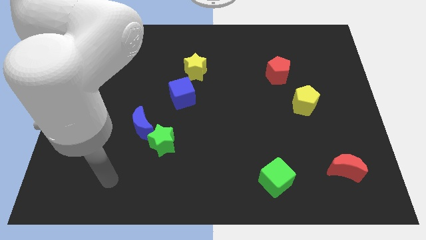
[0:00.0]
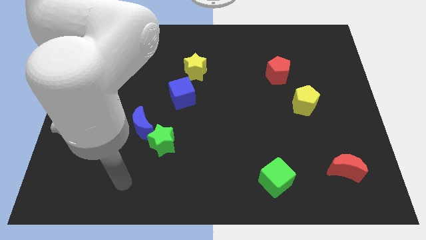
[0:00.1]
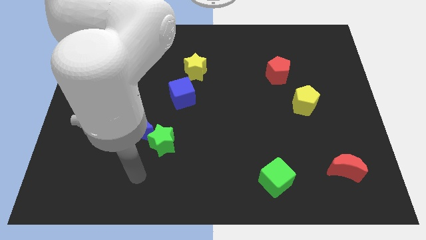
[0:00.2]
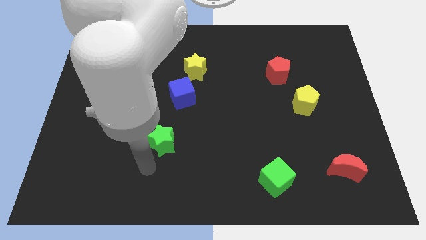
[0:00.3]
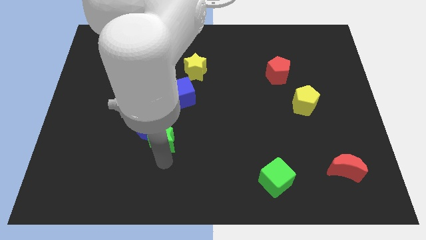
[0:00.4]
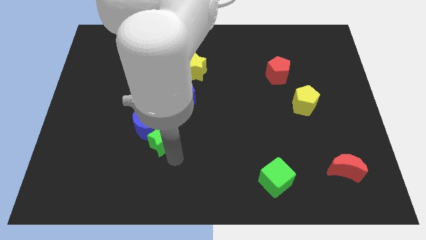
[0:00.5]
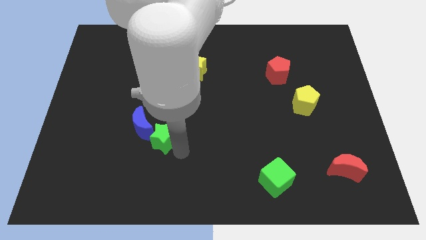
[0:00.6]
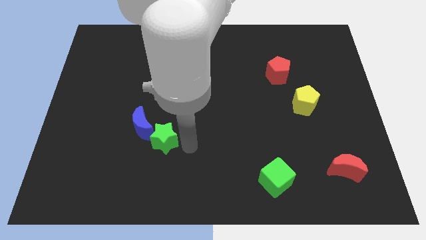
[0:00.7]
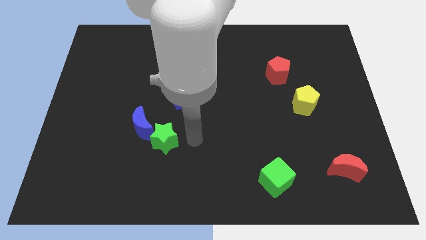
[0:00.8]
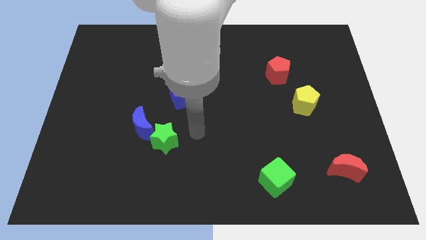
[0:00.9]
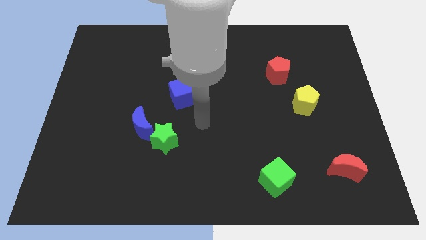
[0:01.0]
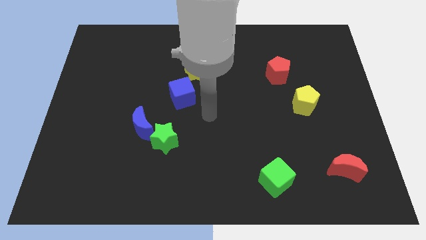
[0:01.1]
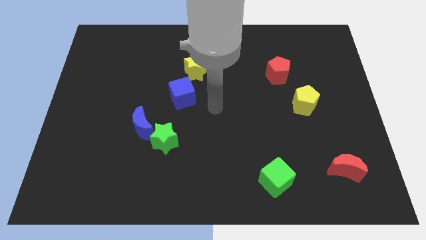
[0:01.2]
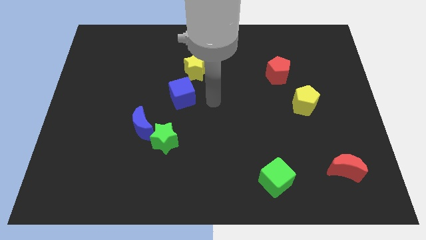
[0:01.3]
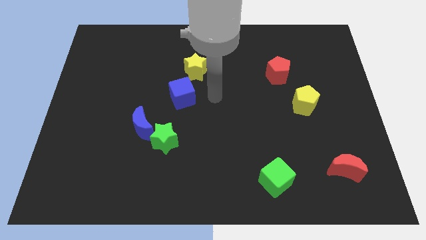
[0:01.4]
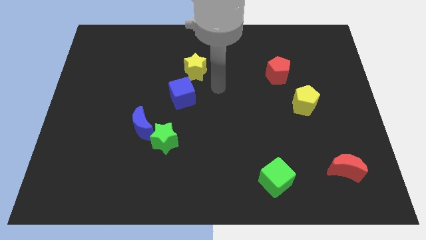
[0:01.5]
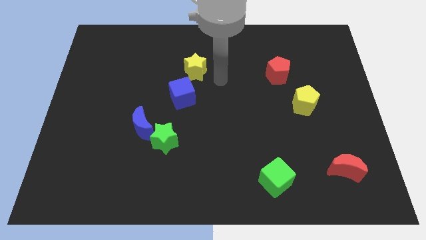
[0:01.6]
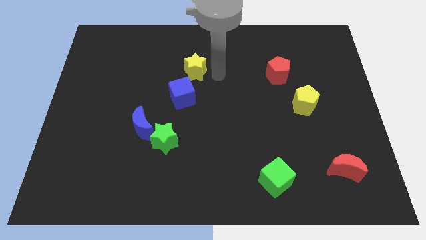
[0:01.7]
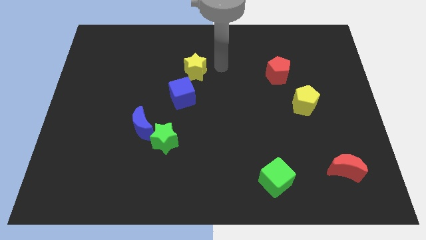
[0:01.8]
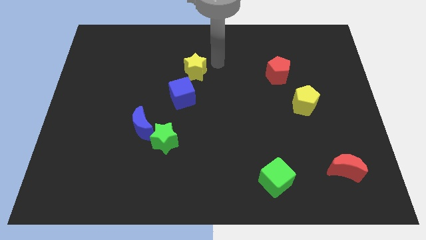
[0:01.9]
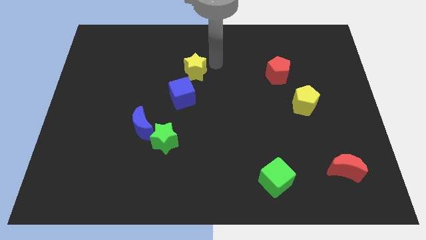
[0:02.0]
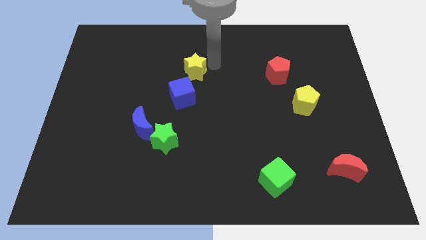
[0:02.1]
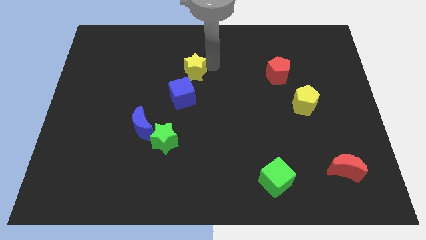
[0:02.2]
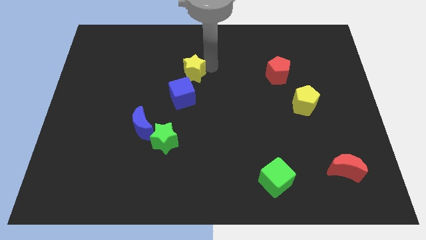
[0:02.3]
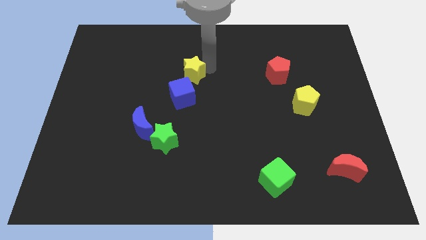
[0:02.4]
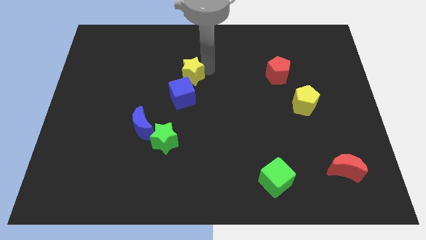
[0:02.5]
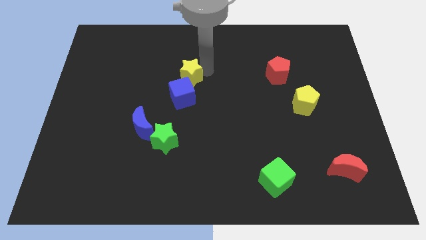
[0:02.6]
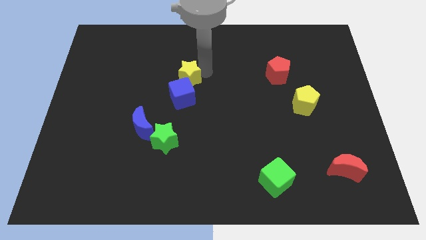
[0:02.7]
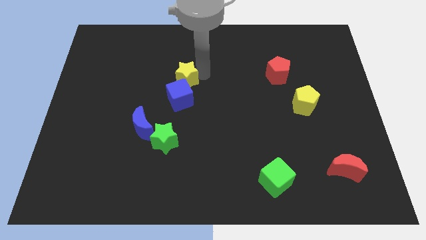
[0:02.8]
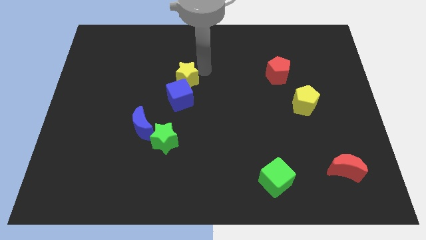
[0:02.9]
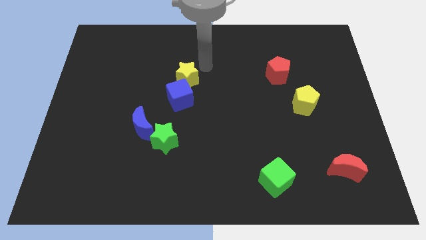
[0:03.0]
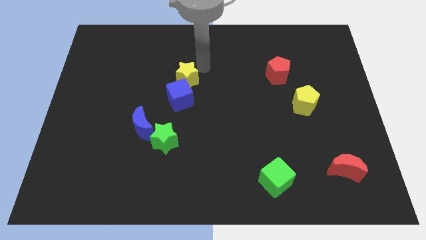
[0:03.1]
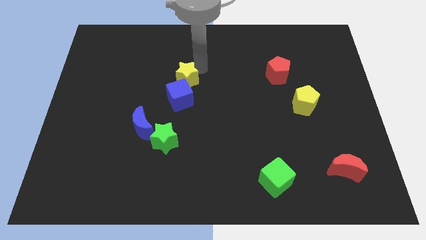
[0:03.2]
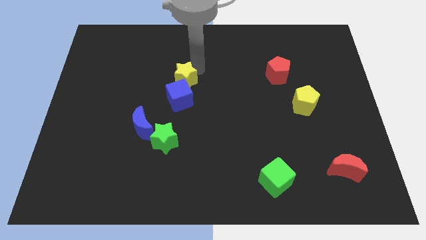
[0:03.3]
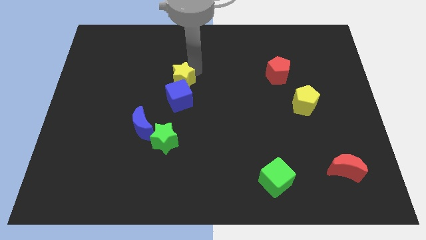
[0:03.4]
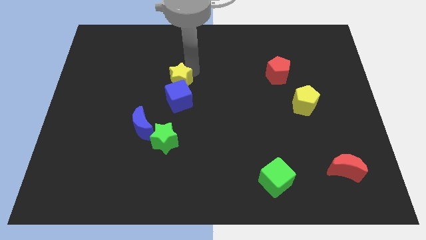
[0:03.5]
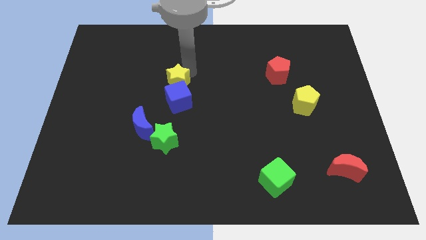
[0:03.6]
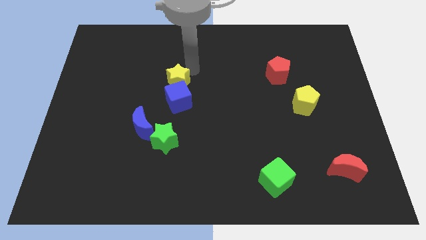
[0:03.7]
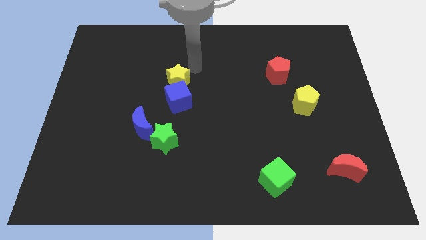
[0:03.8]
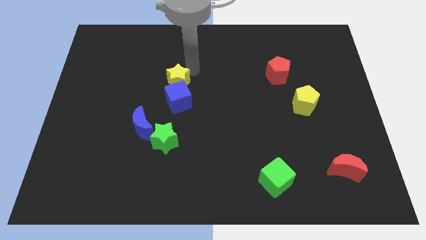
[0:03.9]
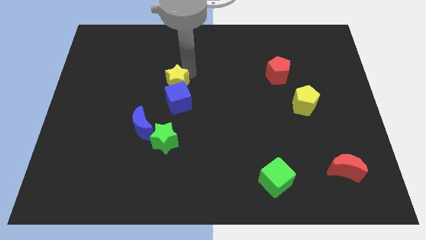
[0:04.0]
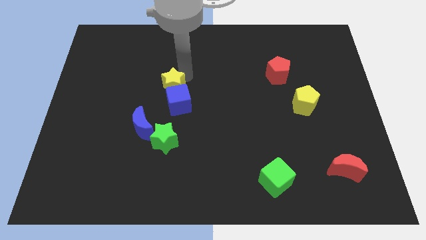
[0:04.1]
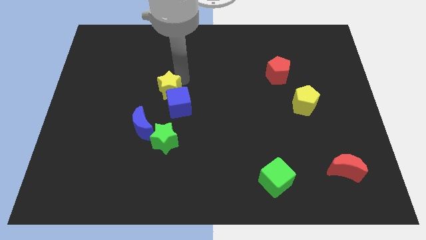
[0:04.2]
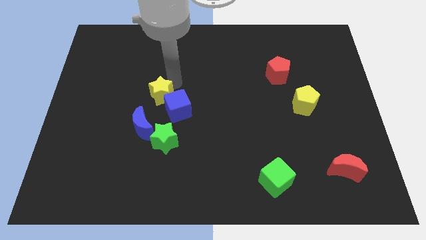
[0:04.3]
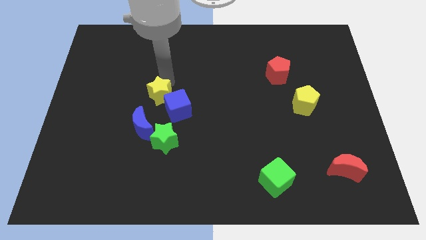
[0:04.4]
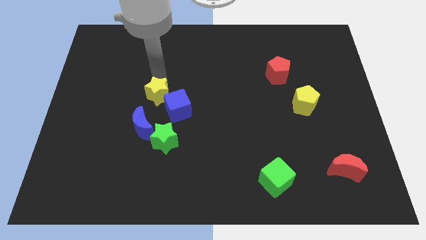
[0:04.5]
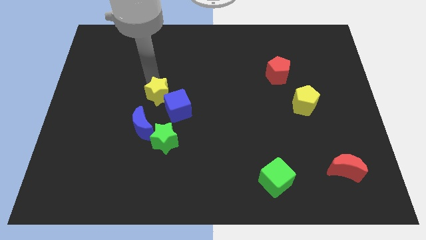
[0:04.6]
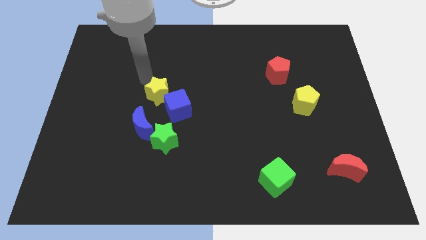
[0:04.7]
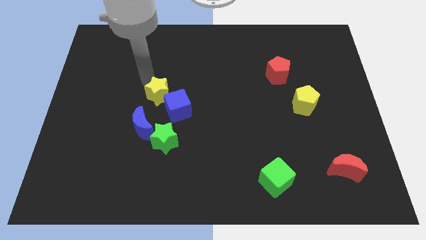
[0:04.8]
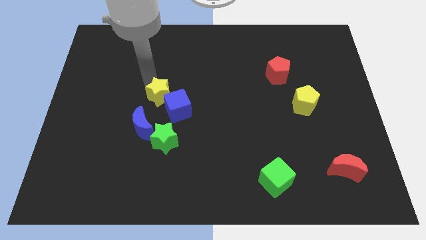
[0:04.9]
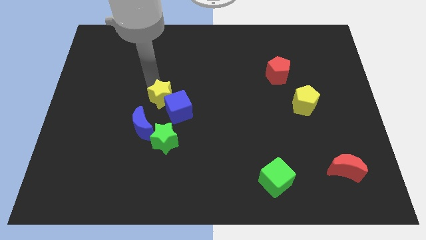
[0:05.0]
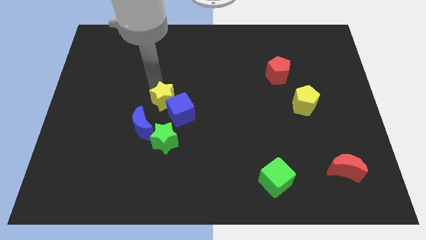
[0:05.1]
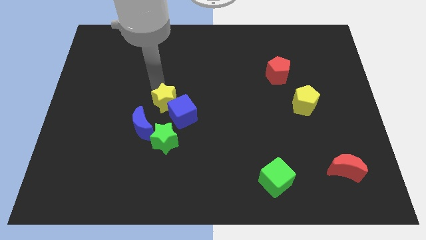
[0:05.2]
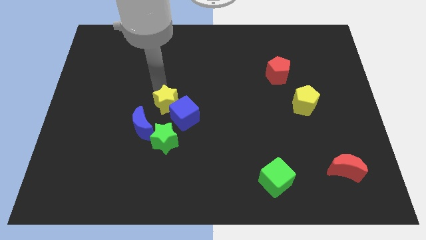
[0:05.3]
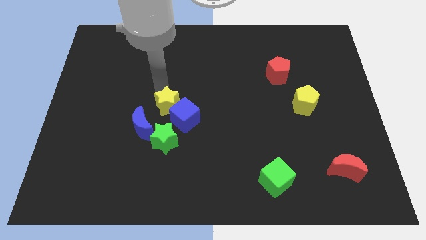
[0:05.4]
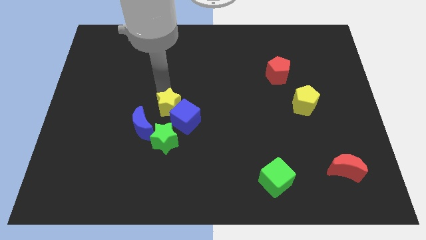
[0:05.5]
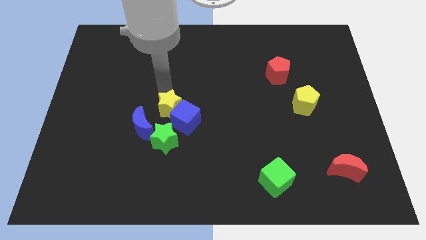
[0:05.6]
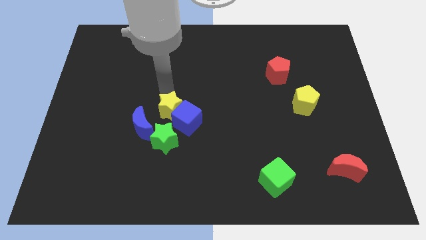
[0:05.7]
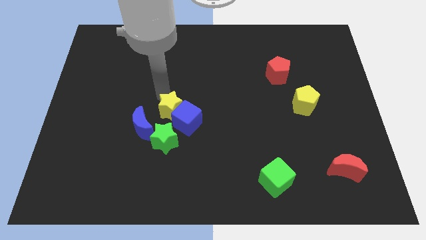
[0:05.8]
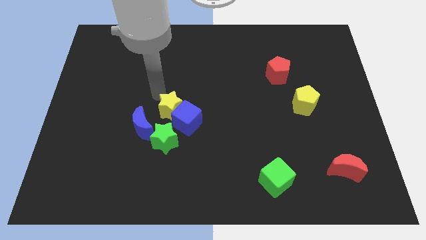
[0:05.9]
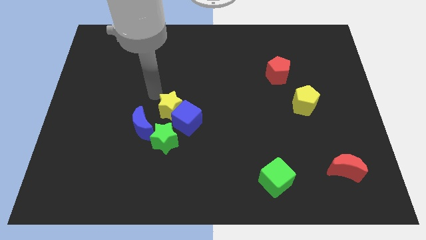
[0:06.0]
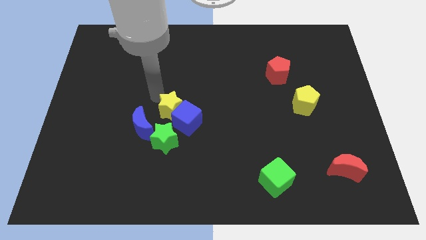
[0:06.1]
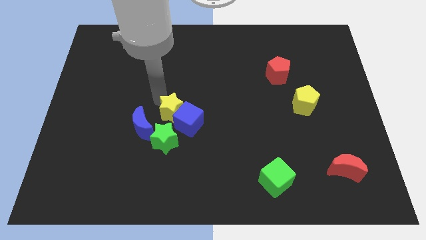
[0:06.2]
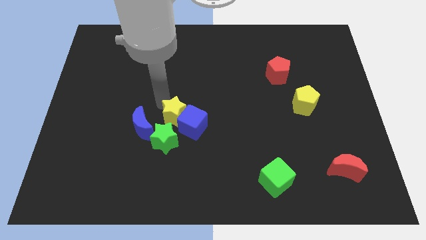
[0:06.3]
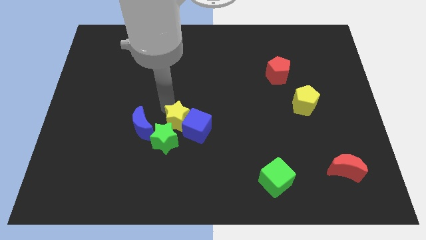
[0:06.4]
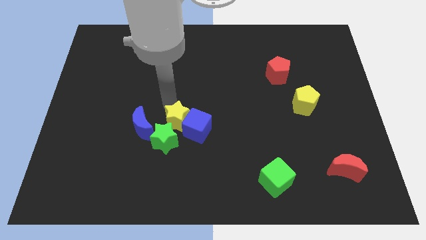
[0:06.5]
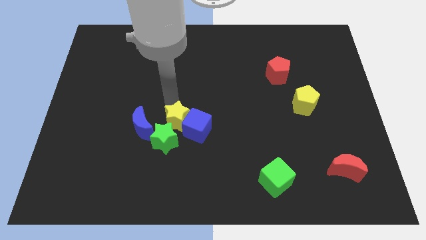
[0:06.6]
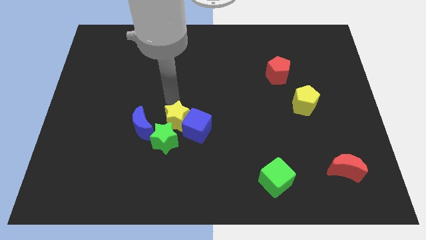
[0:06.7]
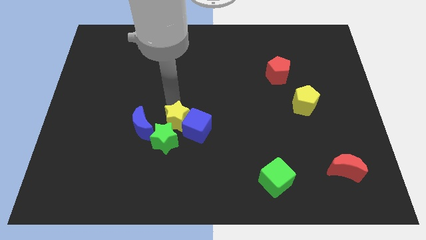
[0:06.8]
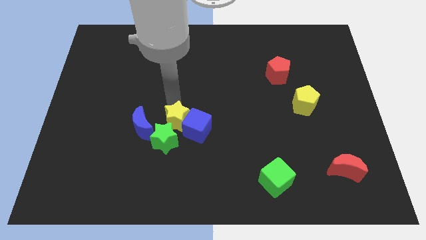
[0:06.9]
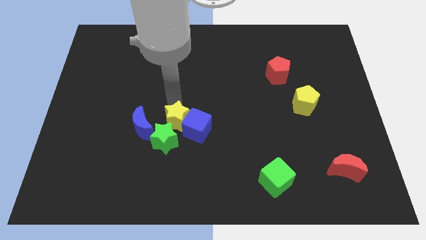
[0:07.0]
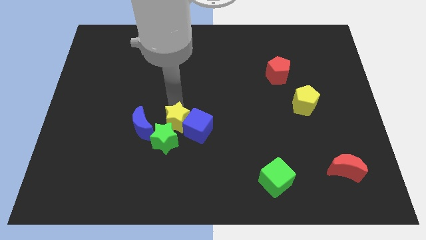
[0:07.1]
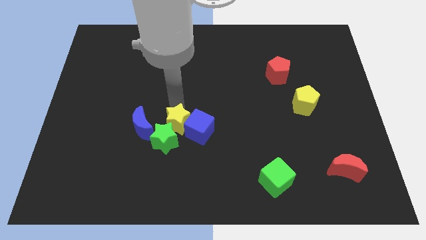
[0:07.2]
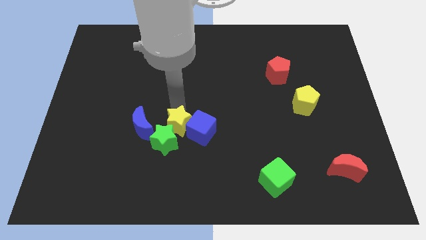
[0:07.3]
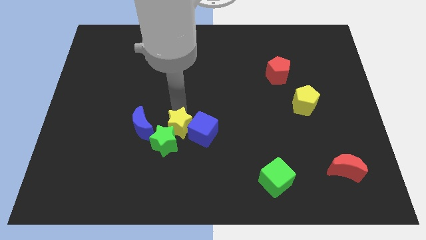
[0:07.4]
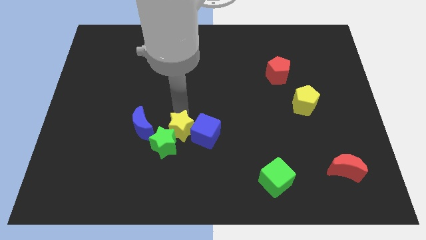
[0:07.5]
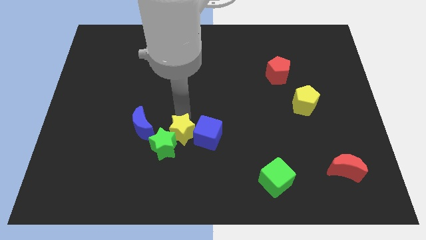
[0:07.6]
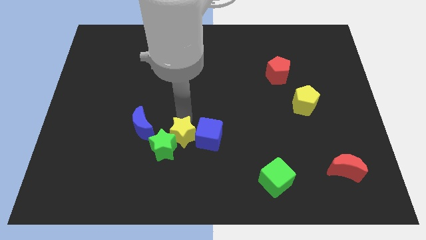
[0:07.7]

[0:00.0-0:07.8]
push the yellow star to the bottom right side of the blue moon

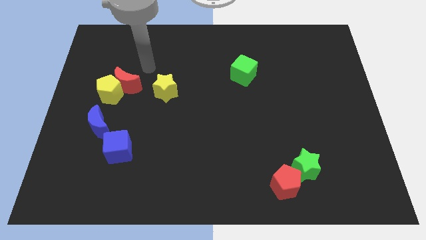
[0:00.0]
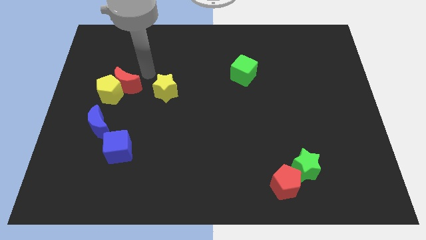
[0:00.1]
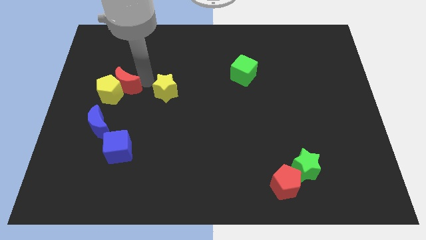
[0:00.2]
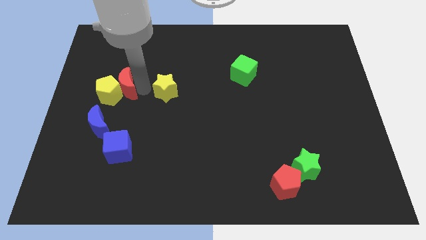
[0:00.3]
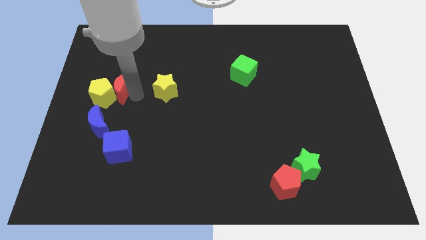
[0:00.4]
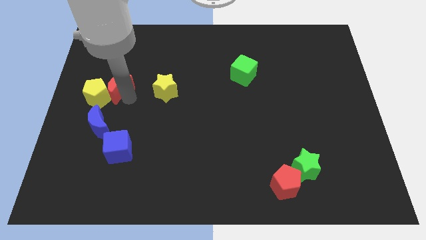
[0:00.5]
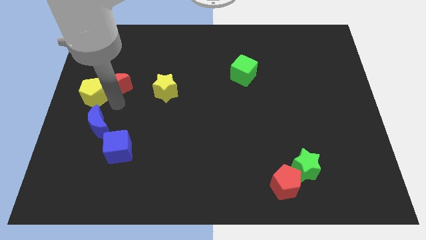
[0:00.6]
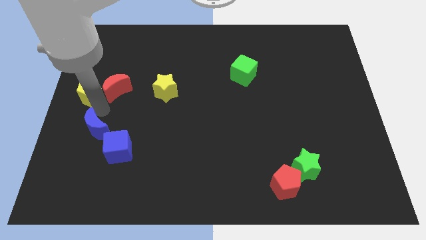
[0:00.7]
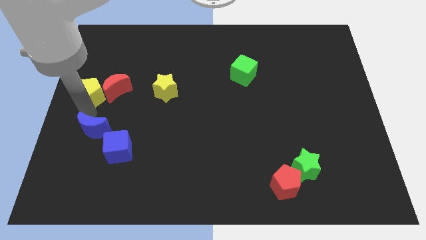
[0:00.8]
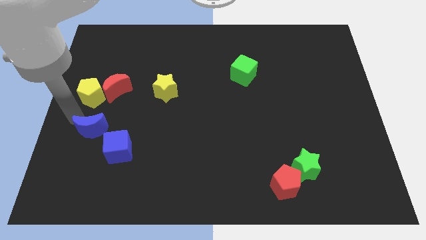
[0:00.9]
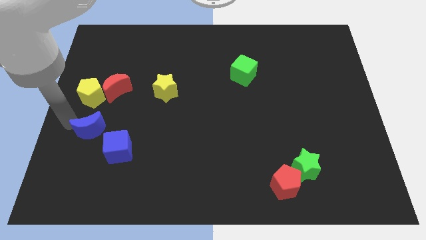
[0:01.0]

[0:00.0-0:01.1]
put the blue cube just right of the blue moon
